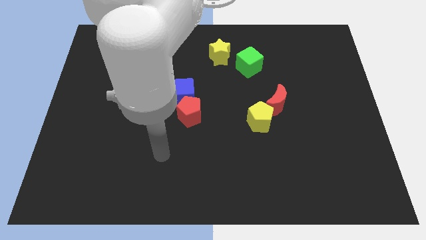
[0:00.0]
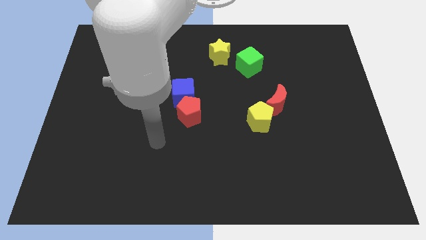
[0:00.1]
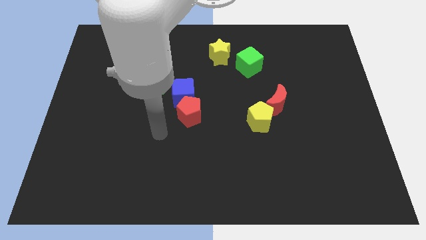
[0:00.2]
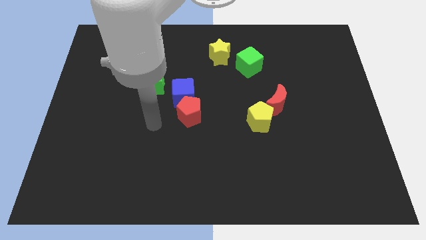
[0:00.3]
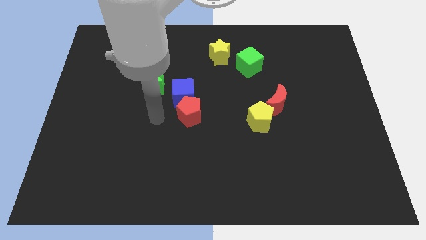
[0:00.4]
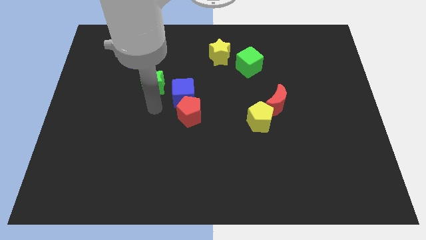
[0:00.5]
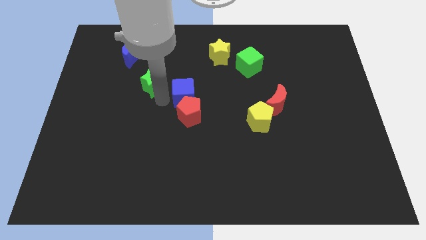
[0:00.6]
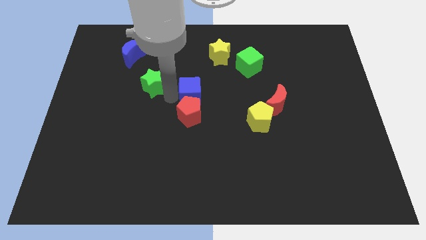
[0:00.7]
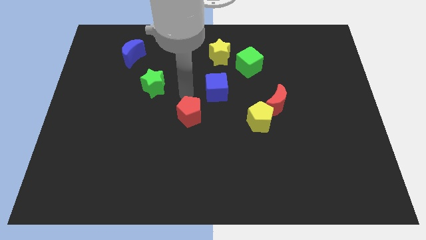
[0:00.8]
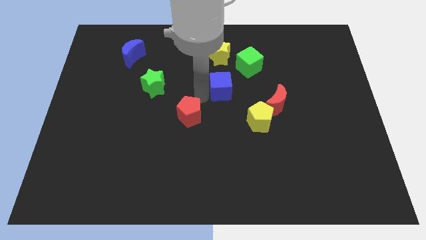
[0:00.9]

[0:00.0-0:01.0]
move the red pentagon away from the blue cube

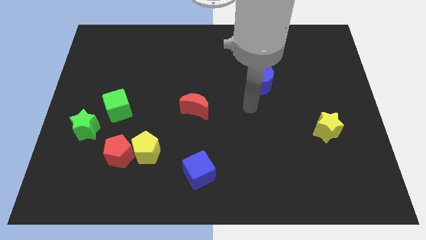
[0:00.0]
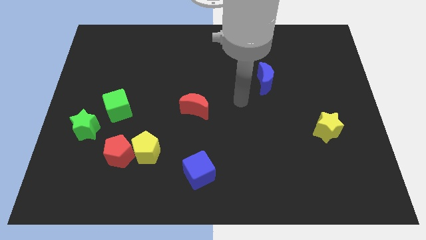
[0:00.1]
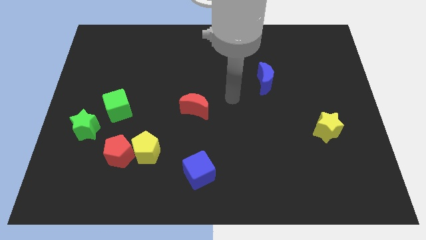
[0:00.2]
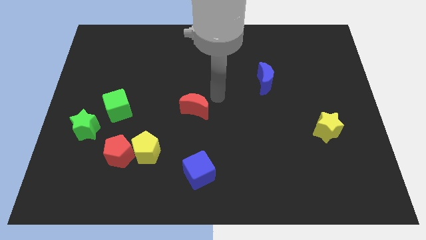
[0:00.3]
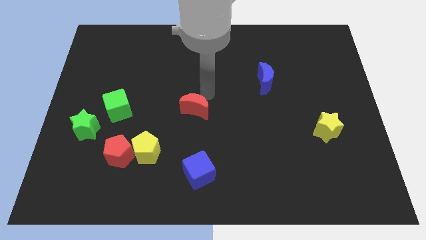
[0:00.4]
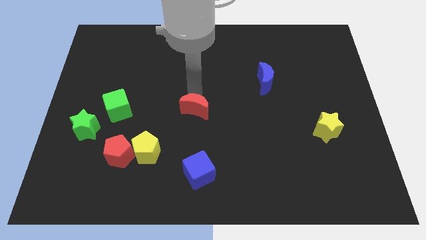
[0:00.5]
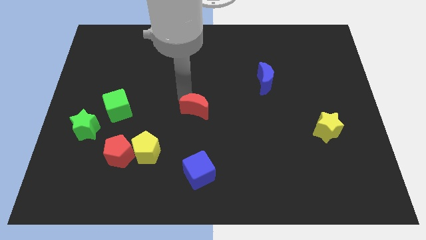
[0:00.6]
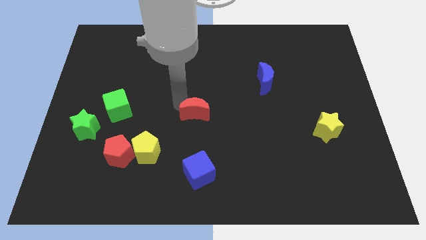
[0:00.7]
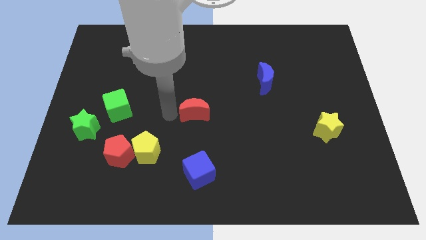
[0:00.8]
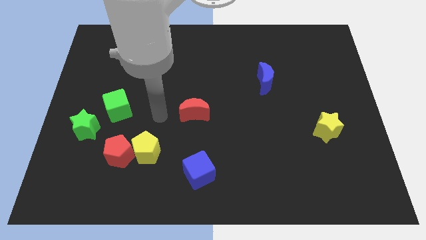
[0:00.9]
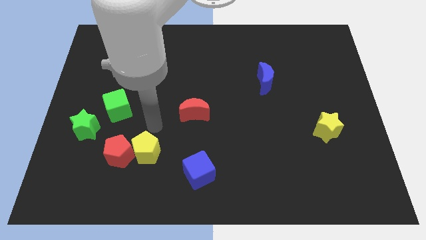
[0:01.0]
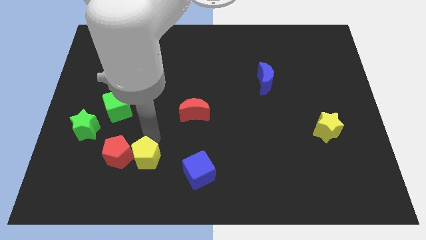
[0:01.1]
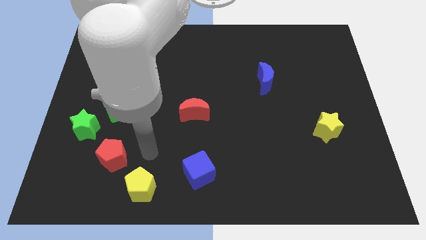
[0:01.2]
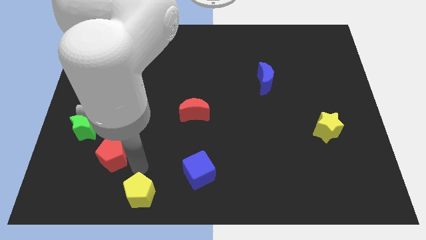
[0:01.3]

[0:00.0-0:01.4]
separate the red pentagon from the yellow pentagon

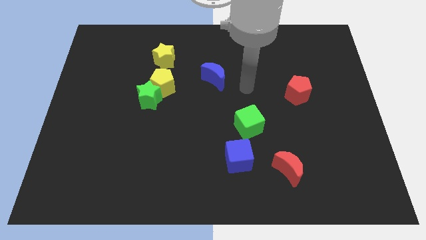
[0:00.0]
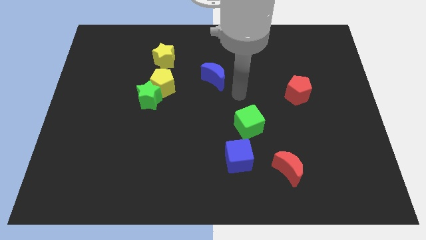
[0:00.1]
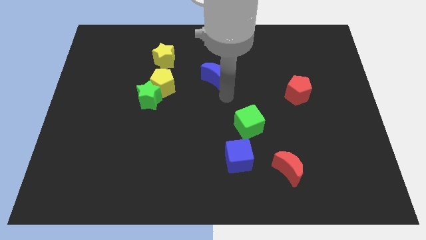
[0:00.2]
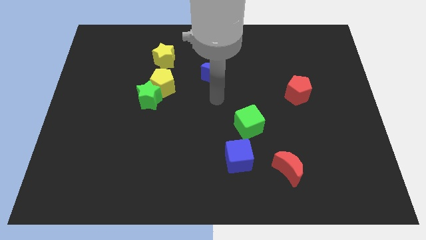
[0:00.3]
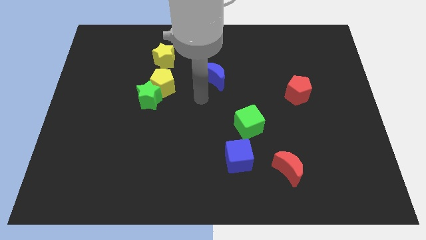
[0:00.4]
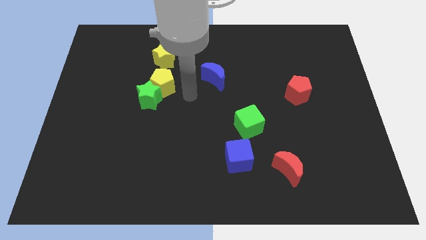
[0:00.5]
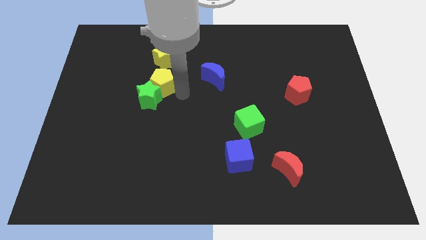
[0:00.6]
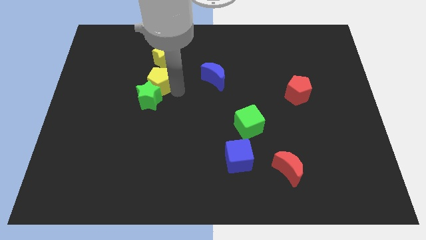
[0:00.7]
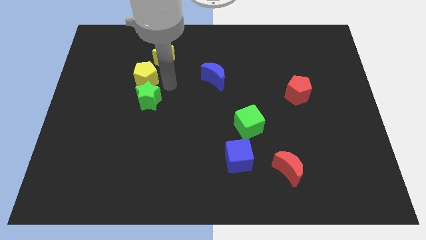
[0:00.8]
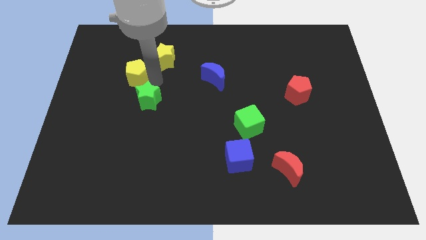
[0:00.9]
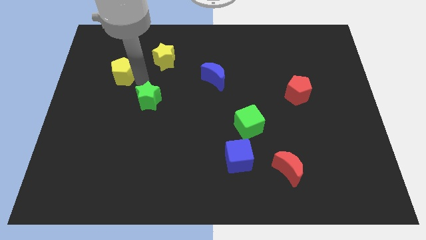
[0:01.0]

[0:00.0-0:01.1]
move the green star away from the yellow pentagon

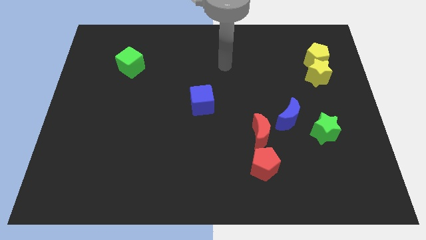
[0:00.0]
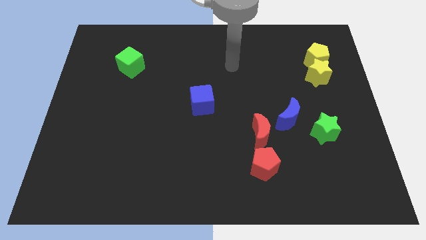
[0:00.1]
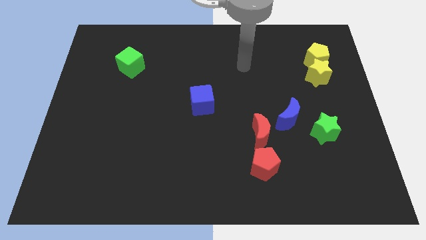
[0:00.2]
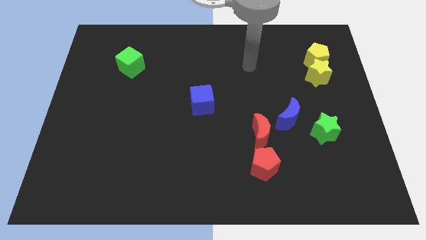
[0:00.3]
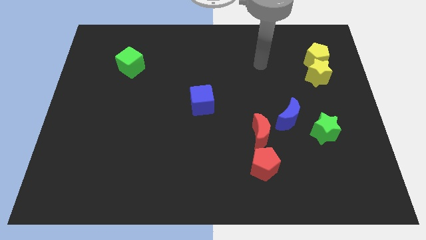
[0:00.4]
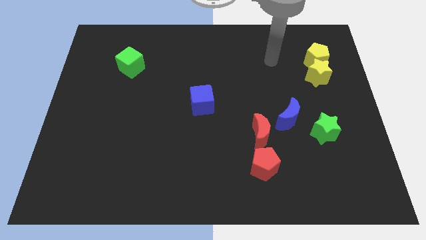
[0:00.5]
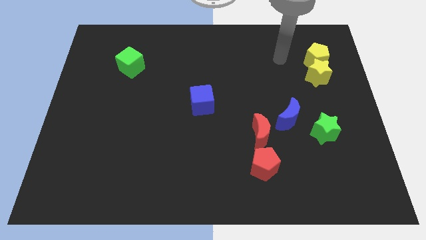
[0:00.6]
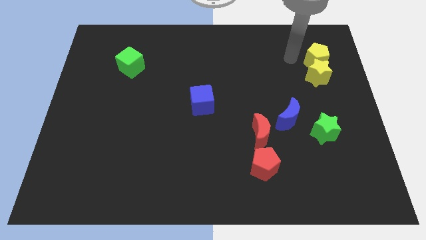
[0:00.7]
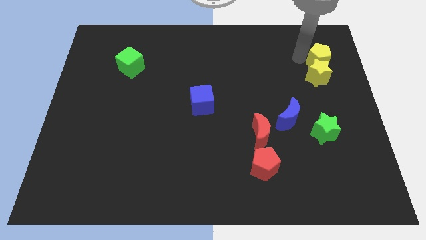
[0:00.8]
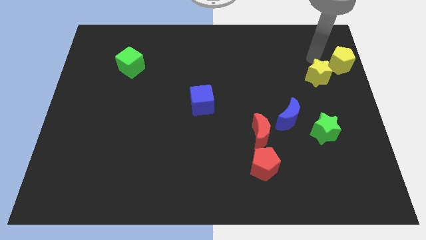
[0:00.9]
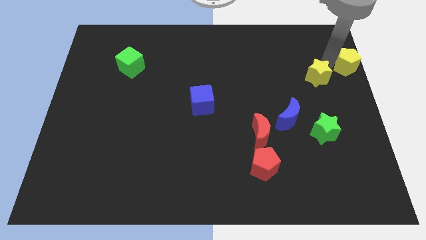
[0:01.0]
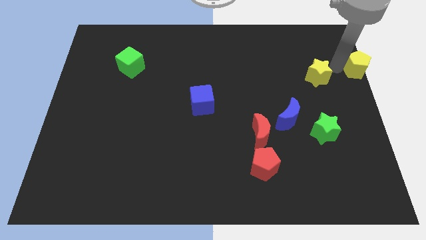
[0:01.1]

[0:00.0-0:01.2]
pull the yellow star apart from the yellow pentagon

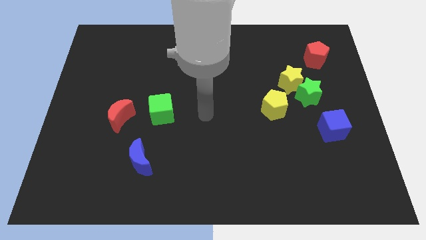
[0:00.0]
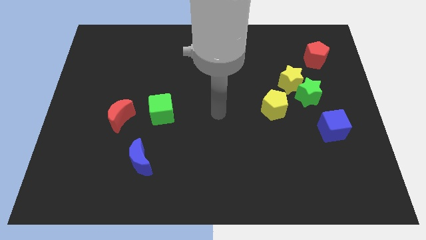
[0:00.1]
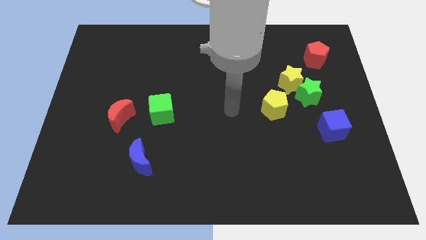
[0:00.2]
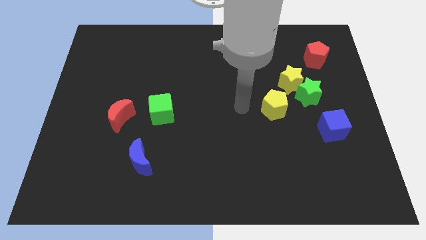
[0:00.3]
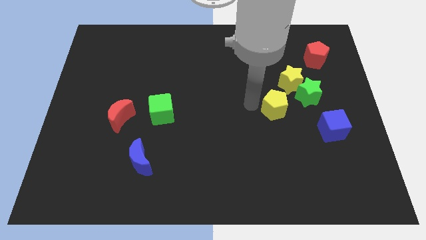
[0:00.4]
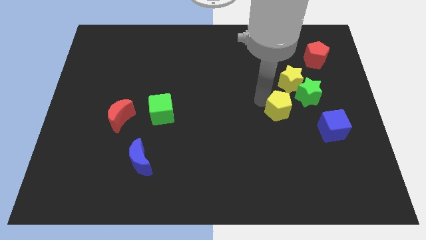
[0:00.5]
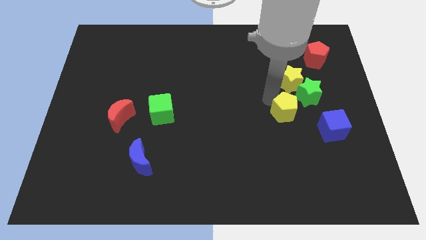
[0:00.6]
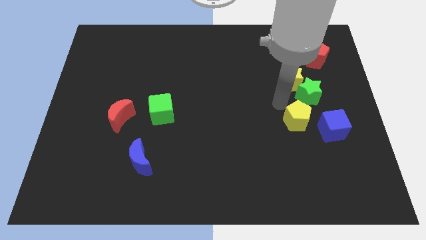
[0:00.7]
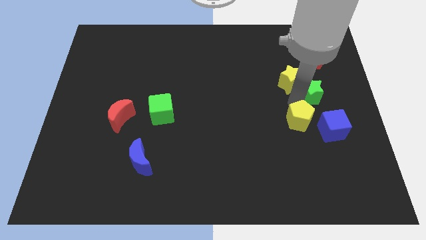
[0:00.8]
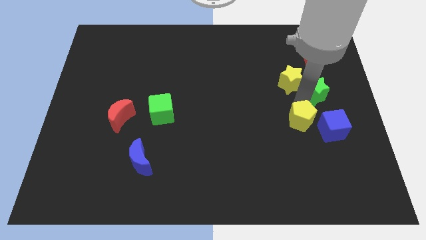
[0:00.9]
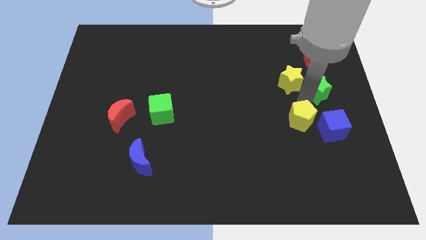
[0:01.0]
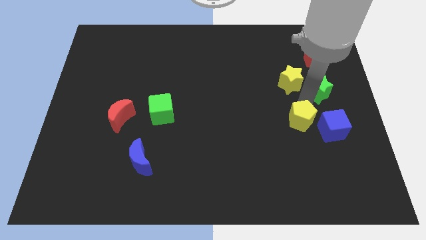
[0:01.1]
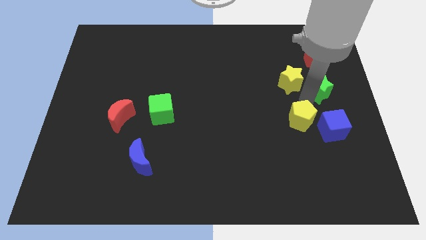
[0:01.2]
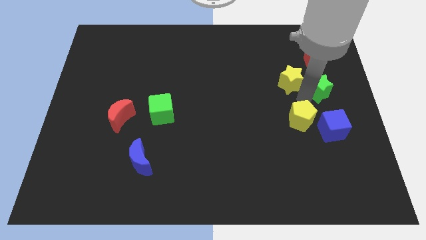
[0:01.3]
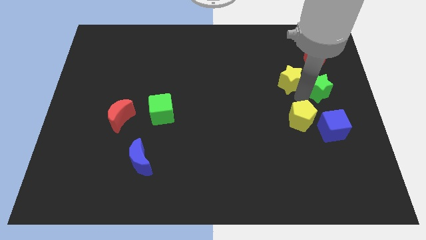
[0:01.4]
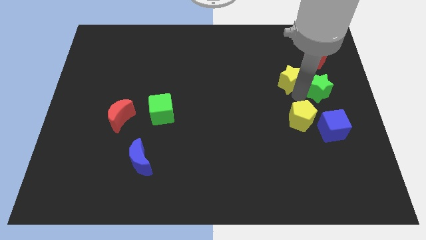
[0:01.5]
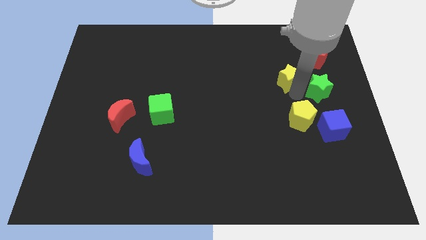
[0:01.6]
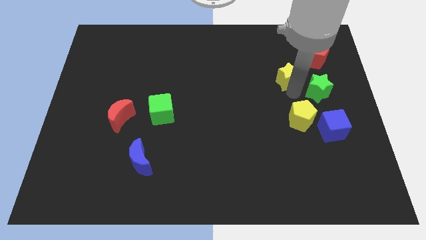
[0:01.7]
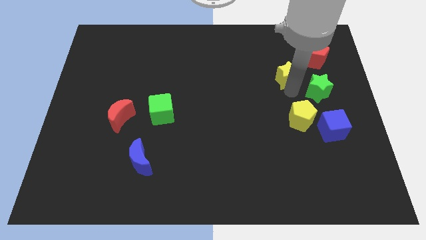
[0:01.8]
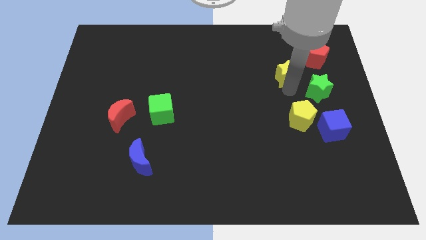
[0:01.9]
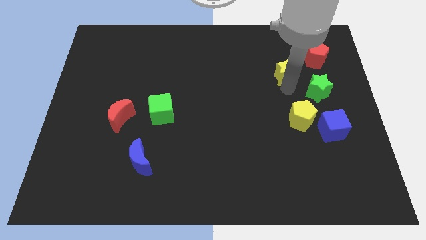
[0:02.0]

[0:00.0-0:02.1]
pull the yellow star apart from the green star and yellow pentagon

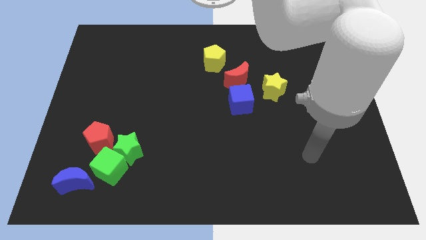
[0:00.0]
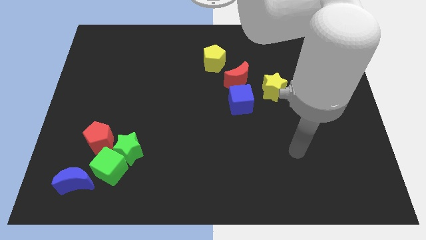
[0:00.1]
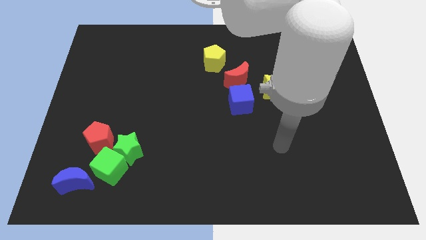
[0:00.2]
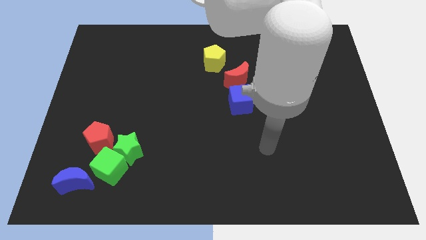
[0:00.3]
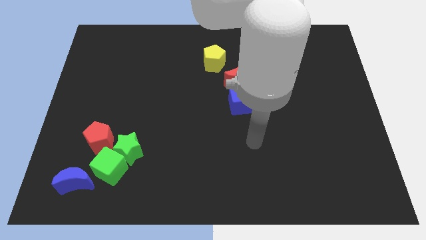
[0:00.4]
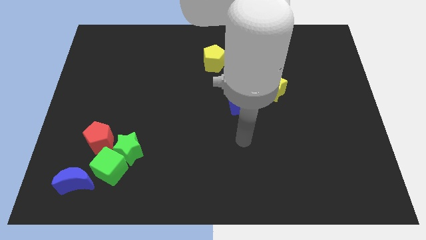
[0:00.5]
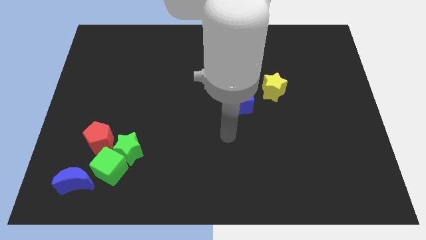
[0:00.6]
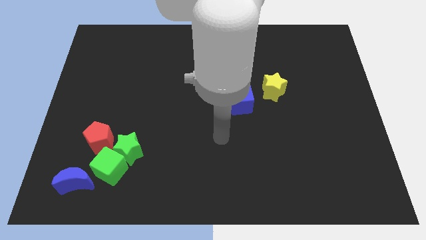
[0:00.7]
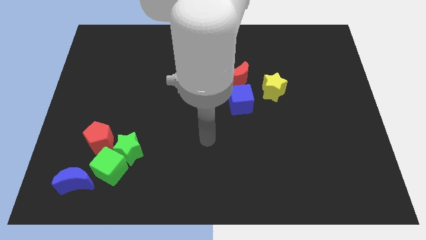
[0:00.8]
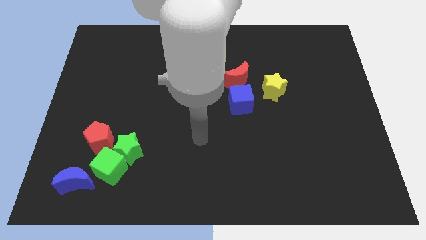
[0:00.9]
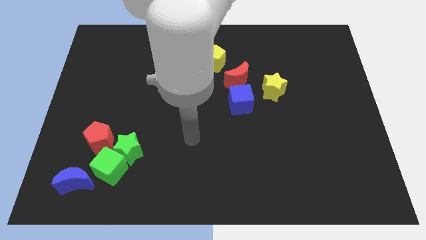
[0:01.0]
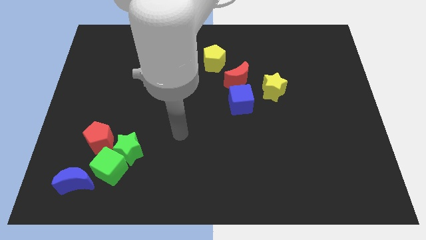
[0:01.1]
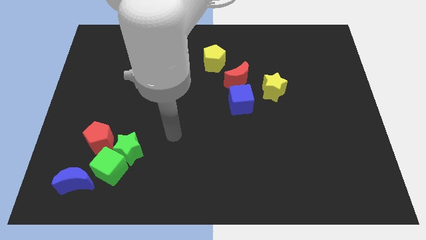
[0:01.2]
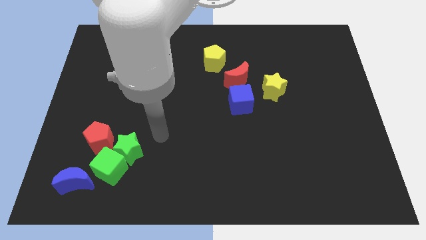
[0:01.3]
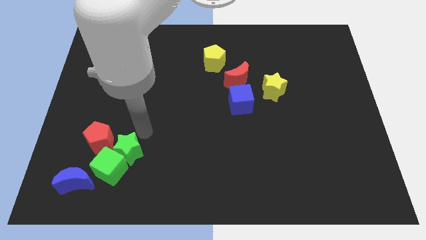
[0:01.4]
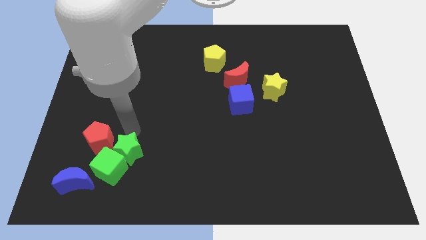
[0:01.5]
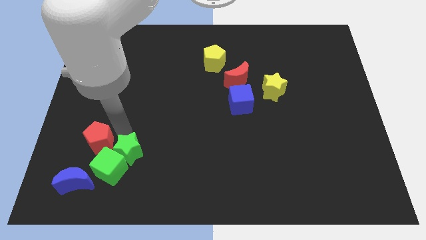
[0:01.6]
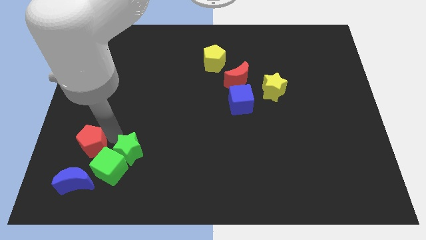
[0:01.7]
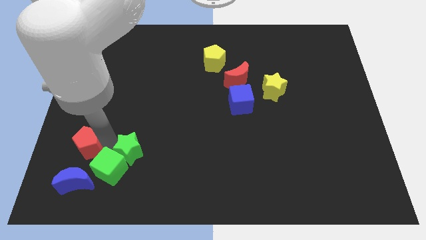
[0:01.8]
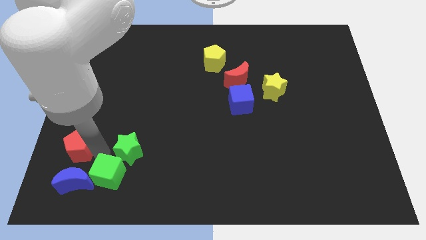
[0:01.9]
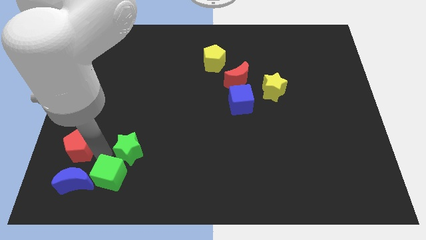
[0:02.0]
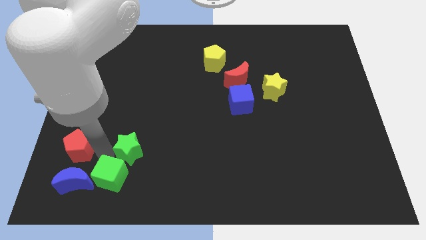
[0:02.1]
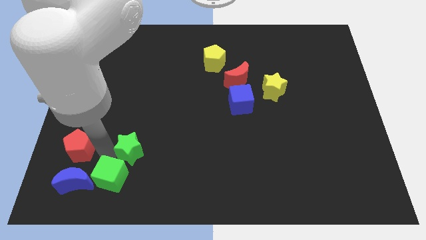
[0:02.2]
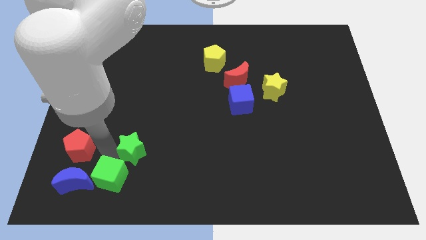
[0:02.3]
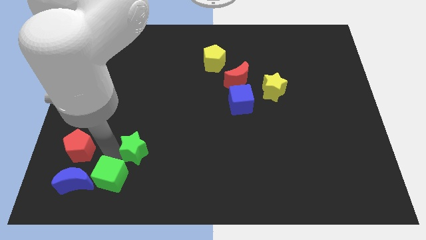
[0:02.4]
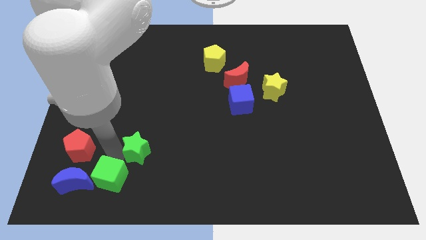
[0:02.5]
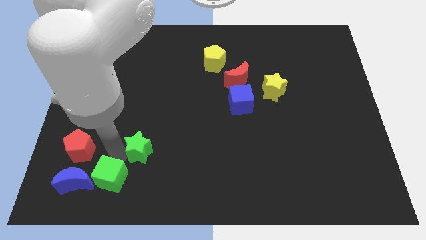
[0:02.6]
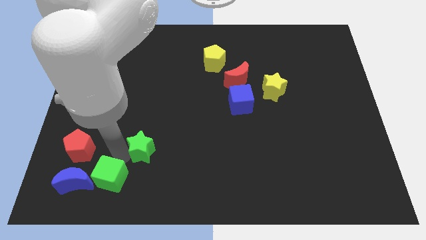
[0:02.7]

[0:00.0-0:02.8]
separate the green star from the green cube and red pentagon
